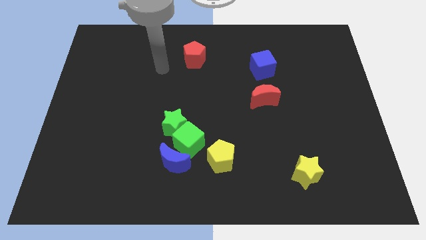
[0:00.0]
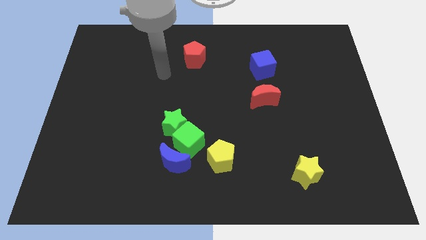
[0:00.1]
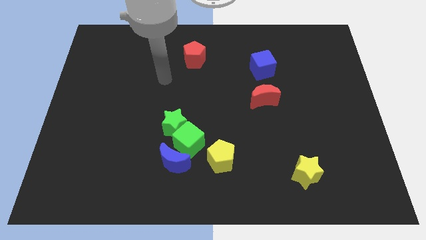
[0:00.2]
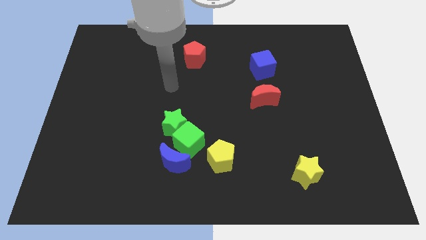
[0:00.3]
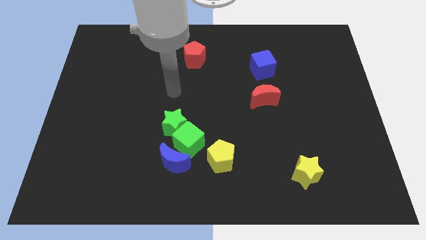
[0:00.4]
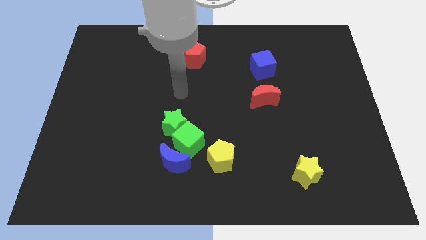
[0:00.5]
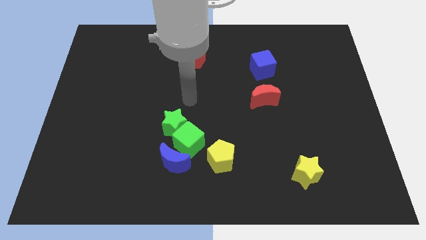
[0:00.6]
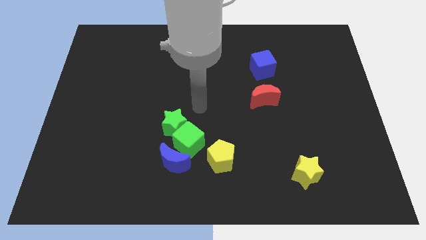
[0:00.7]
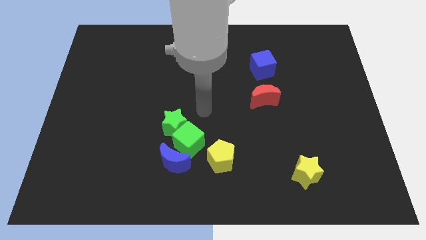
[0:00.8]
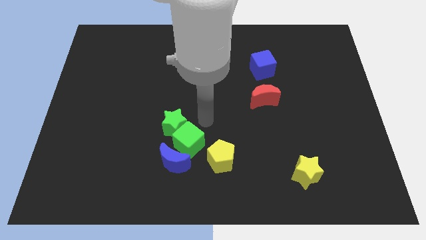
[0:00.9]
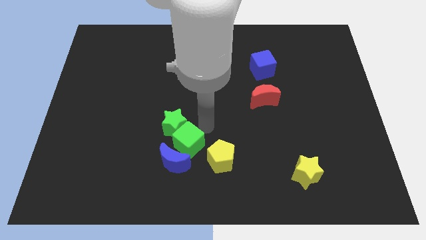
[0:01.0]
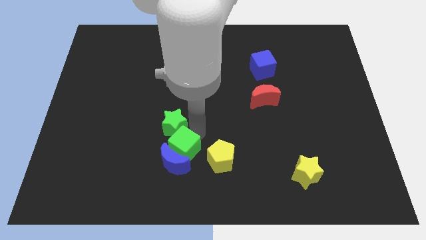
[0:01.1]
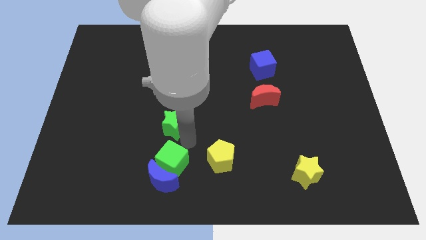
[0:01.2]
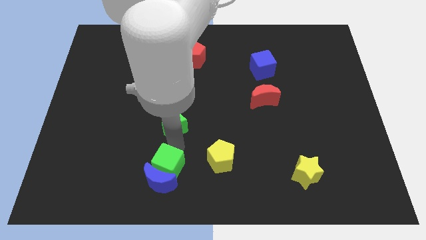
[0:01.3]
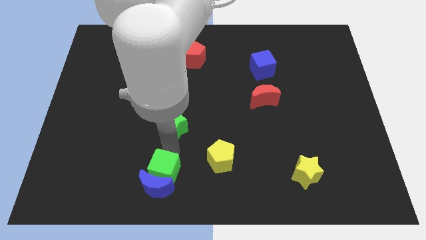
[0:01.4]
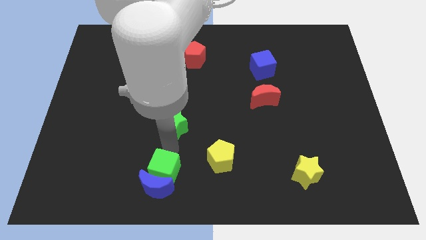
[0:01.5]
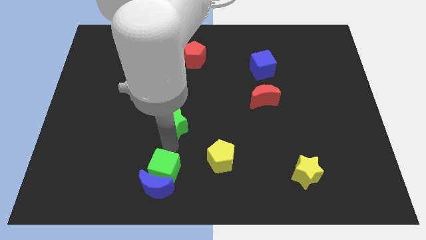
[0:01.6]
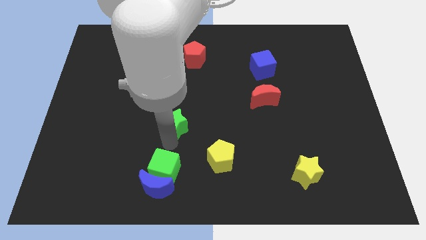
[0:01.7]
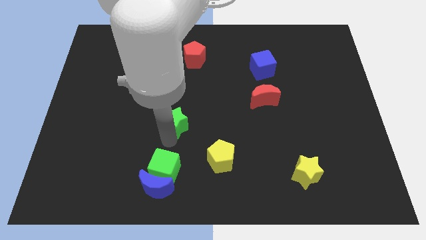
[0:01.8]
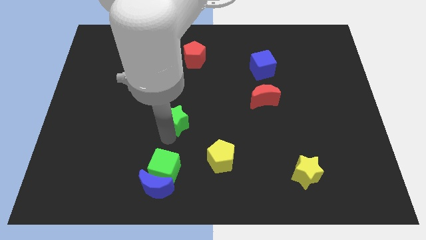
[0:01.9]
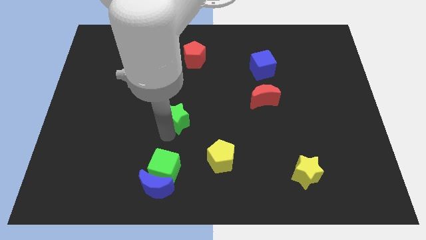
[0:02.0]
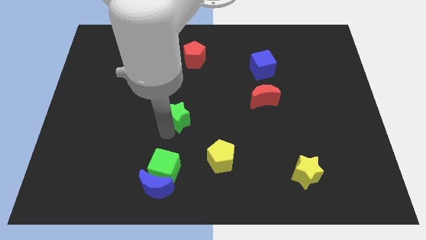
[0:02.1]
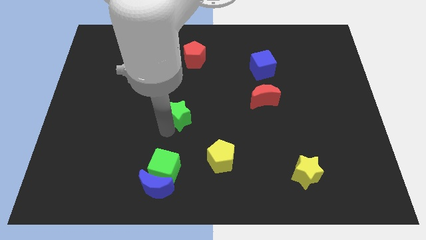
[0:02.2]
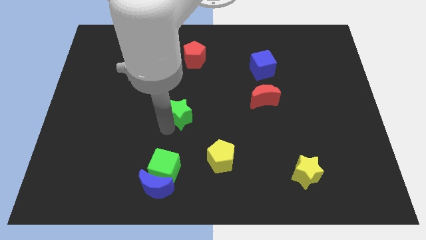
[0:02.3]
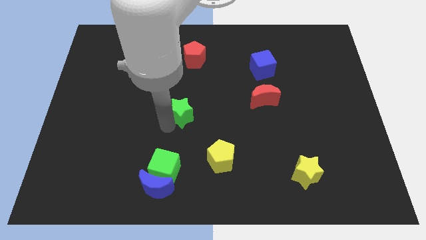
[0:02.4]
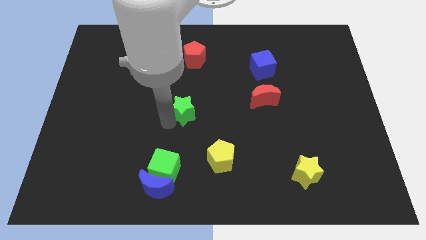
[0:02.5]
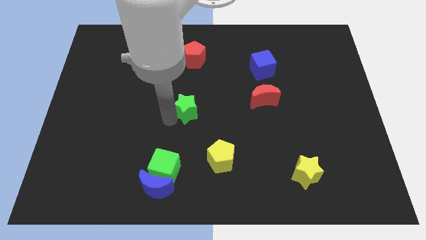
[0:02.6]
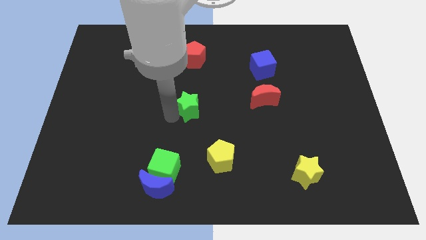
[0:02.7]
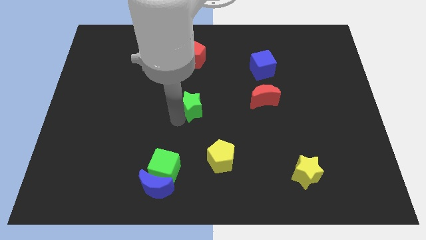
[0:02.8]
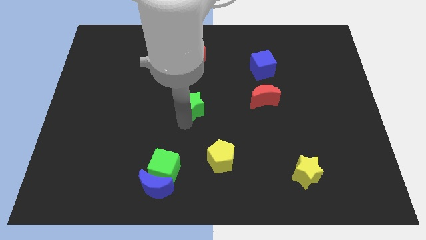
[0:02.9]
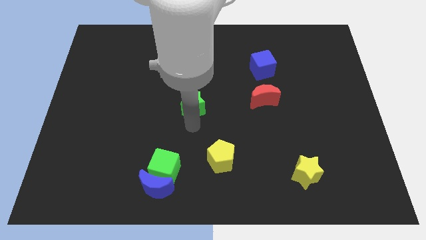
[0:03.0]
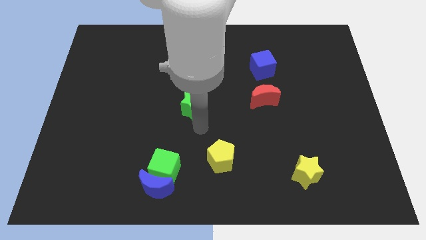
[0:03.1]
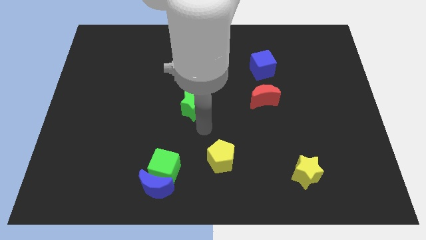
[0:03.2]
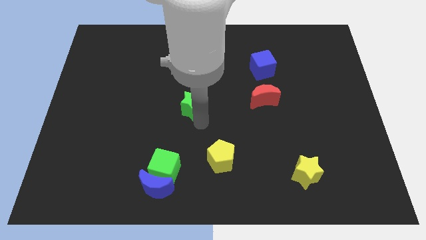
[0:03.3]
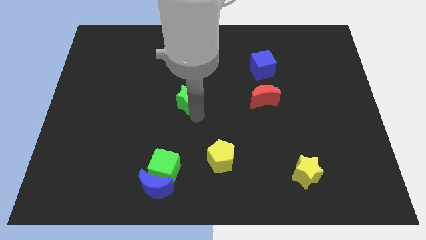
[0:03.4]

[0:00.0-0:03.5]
slightly slide the green star up

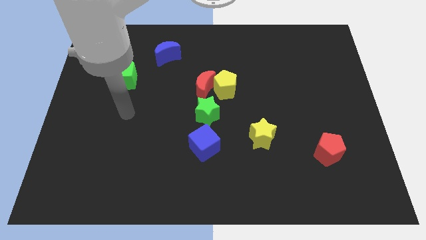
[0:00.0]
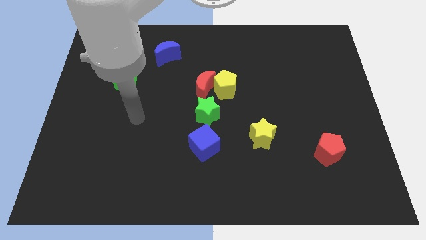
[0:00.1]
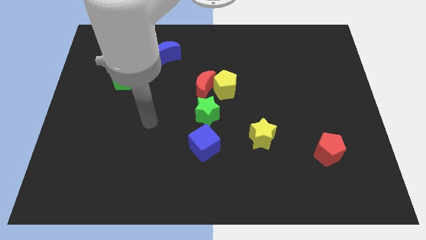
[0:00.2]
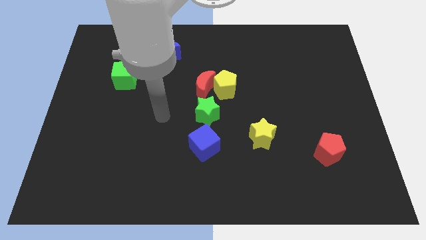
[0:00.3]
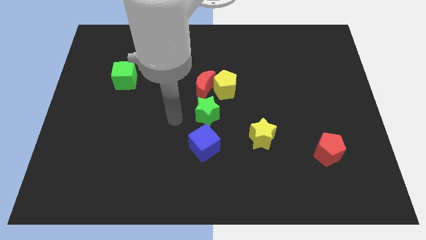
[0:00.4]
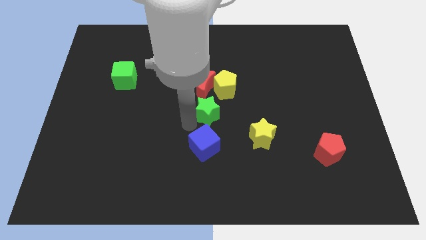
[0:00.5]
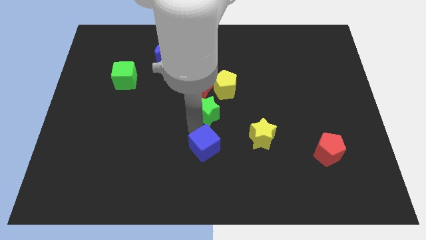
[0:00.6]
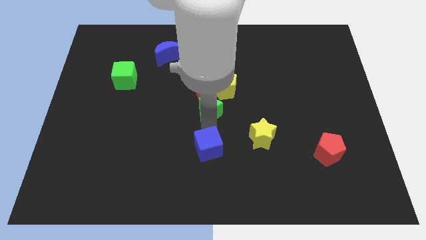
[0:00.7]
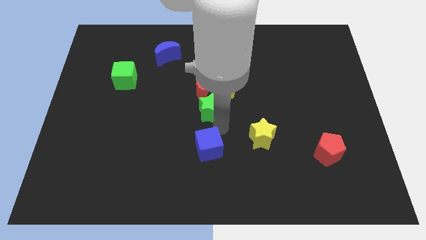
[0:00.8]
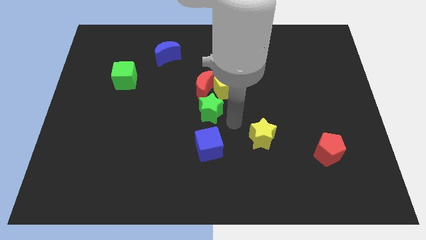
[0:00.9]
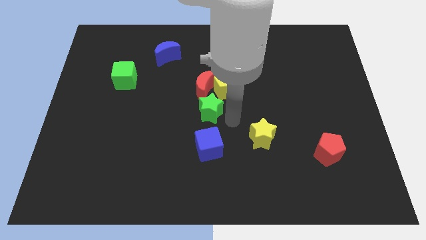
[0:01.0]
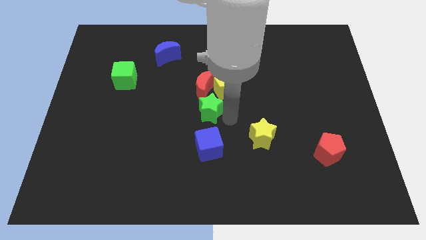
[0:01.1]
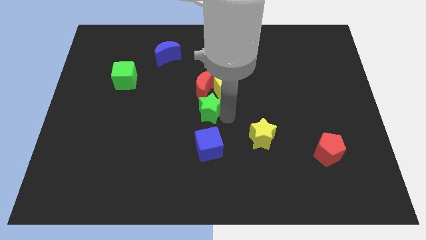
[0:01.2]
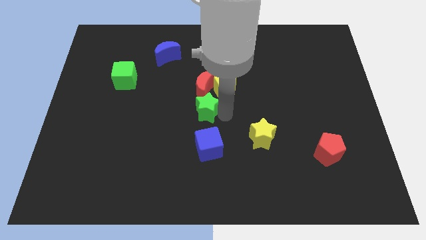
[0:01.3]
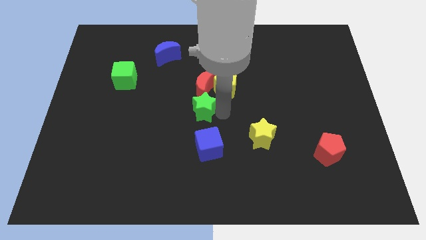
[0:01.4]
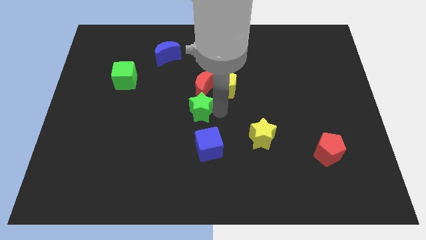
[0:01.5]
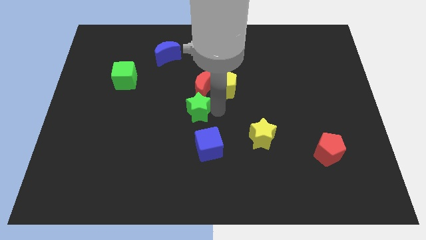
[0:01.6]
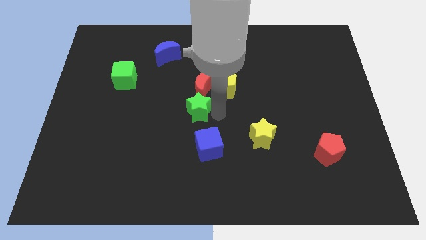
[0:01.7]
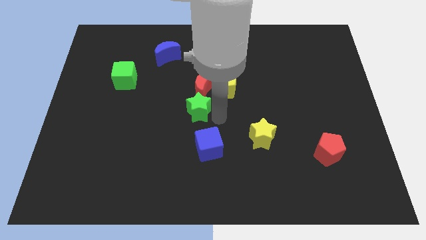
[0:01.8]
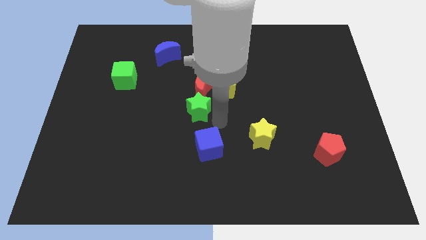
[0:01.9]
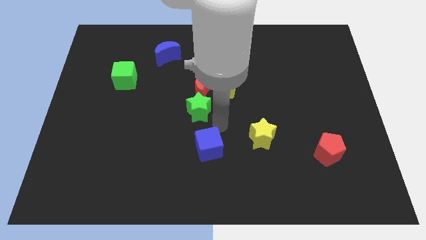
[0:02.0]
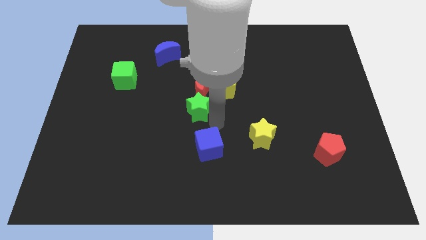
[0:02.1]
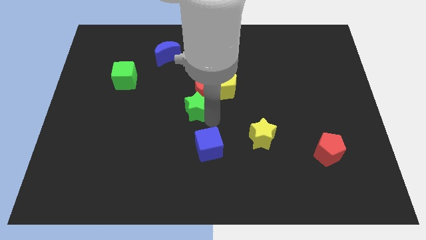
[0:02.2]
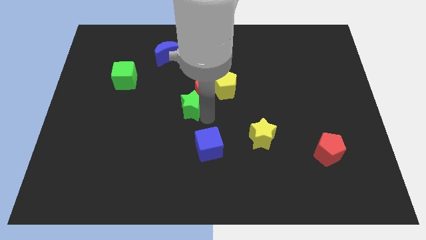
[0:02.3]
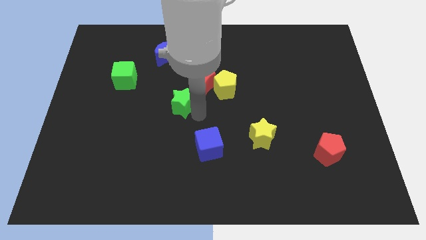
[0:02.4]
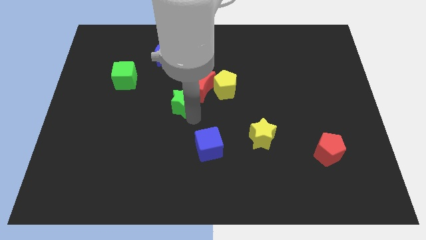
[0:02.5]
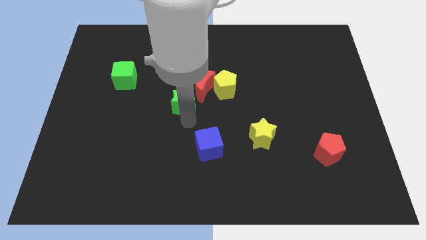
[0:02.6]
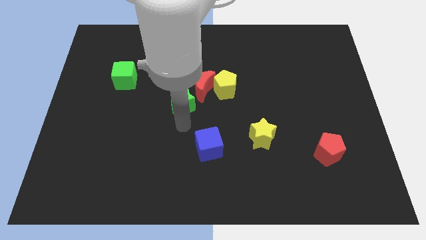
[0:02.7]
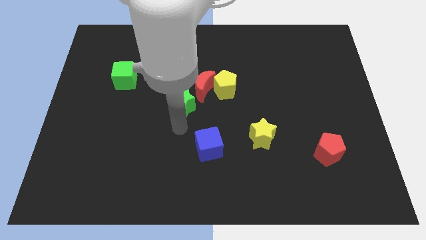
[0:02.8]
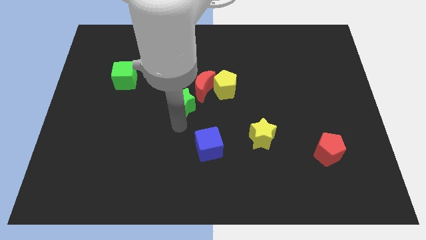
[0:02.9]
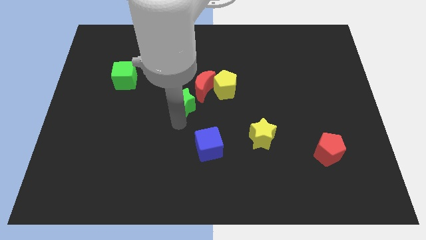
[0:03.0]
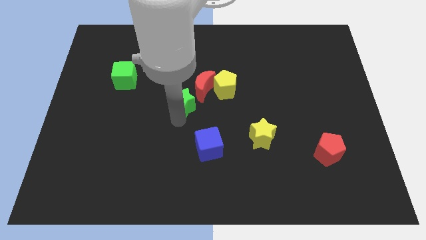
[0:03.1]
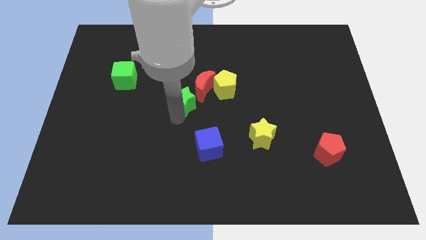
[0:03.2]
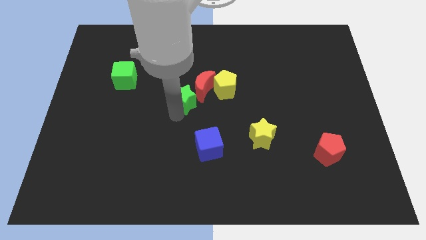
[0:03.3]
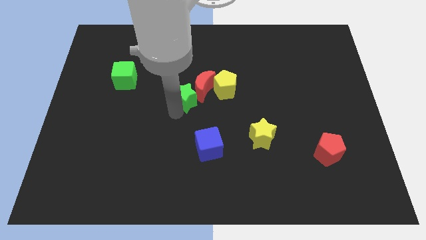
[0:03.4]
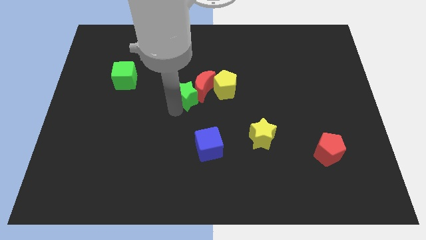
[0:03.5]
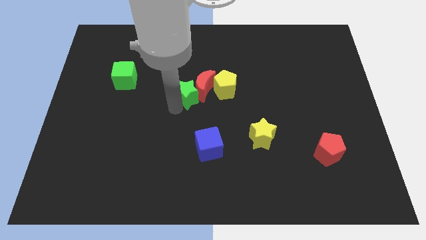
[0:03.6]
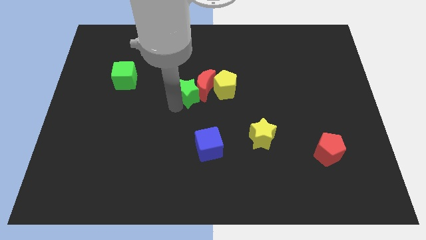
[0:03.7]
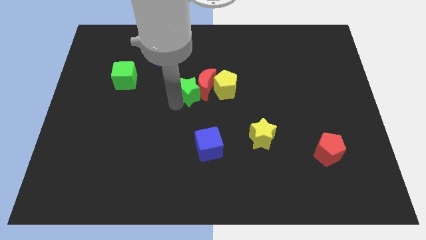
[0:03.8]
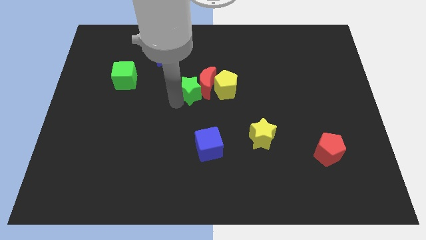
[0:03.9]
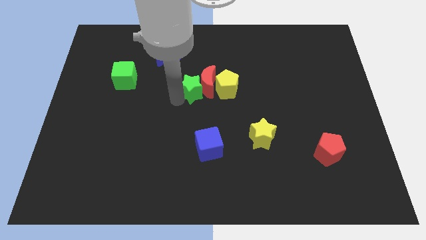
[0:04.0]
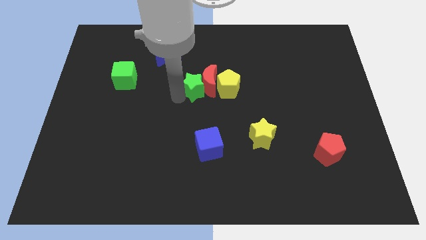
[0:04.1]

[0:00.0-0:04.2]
slightly move the green star up

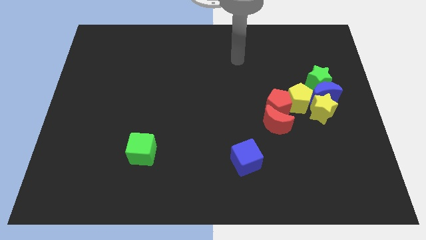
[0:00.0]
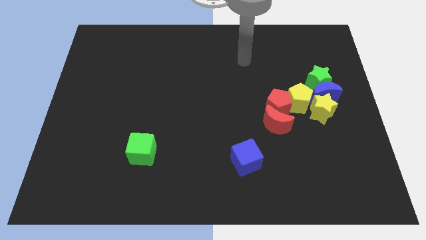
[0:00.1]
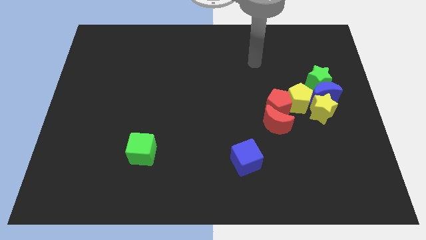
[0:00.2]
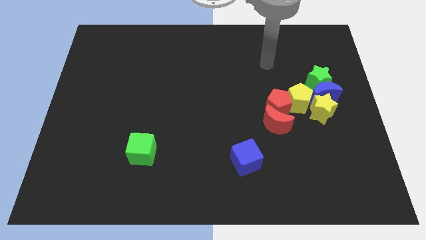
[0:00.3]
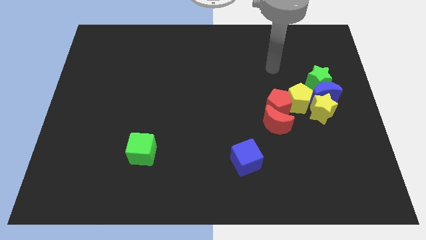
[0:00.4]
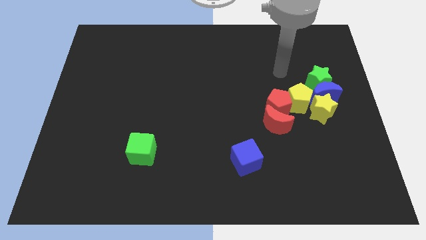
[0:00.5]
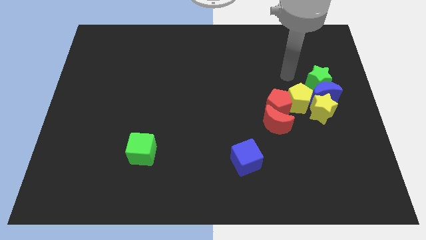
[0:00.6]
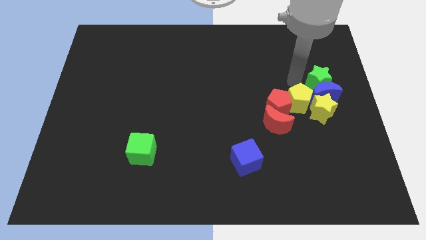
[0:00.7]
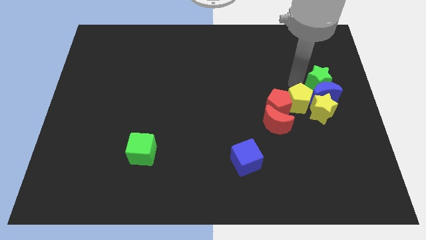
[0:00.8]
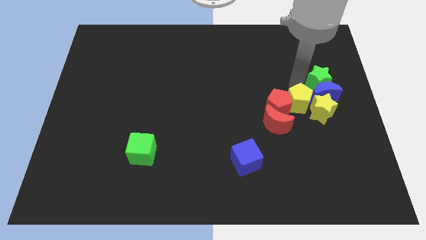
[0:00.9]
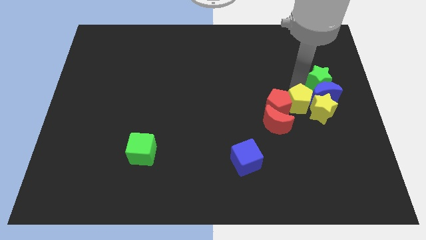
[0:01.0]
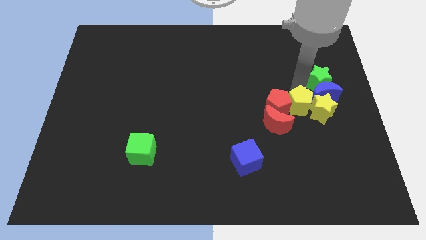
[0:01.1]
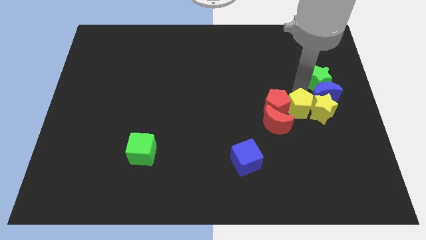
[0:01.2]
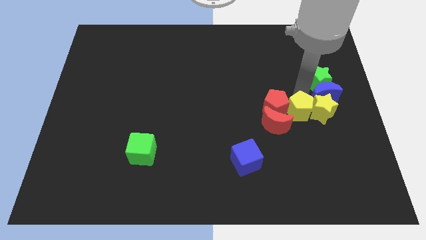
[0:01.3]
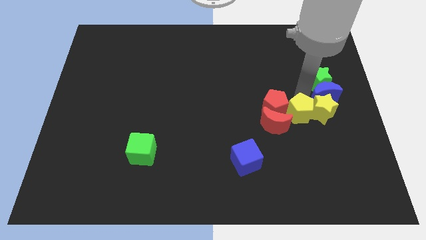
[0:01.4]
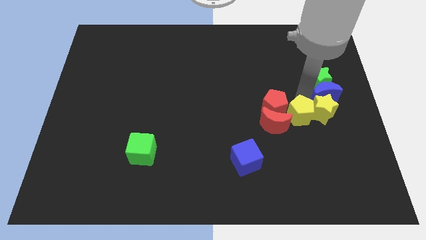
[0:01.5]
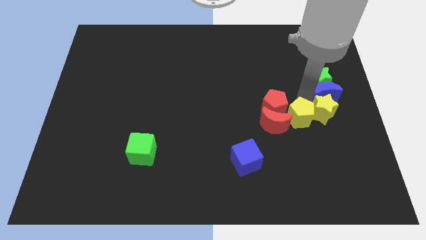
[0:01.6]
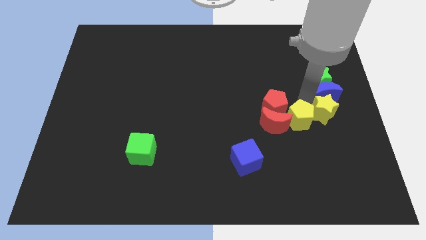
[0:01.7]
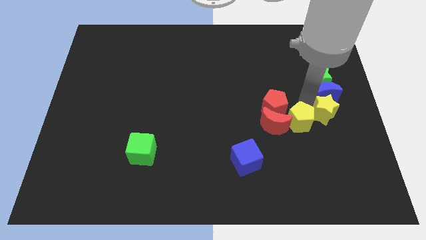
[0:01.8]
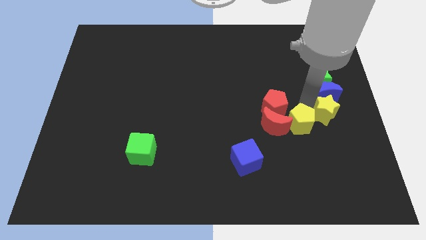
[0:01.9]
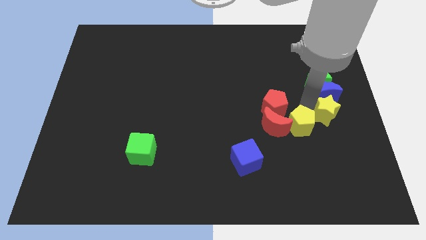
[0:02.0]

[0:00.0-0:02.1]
push the yellow pentagon downwards slightly
